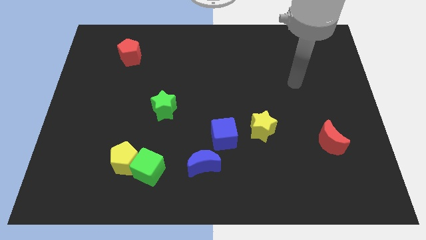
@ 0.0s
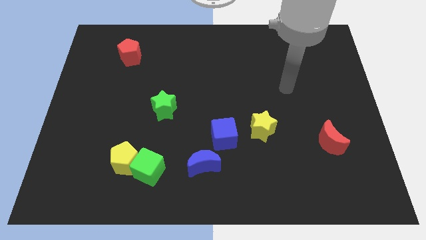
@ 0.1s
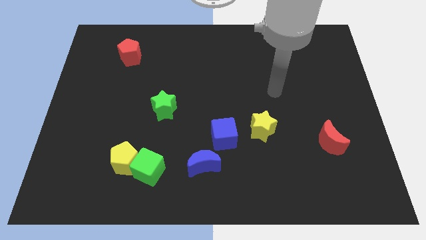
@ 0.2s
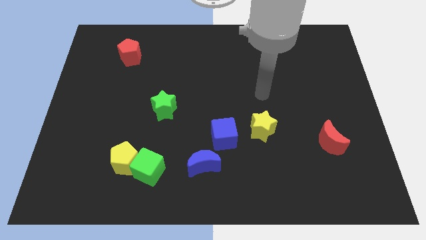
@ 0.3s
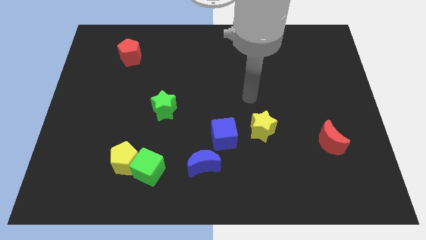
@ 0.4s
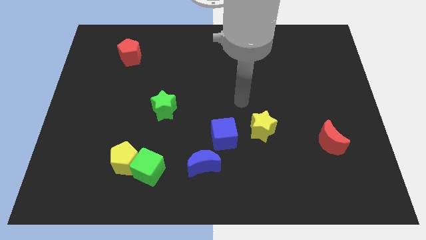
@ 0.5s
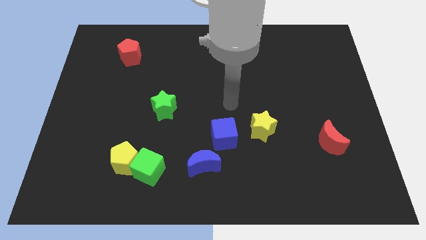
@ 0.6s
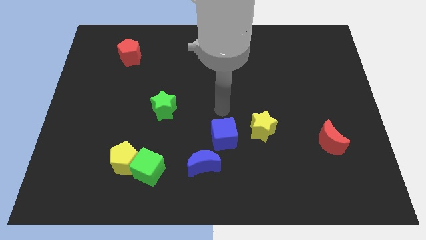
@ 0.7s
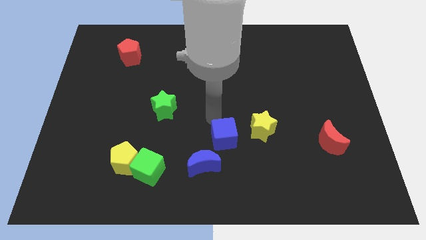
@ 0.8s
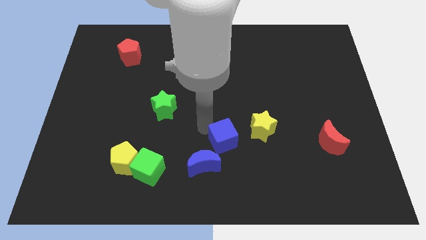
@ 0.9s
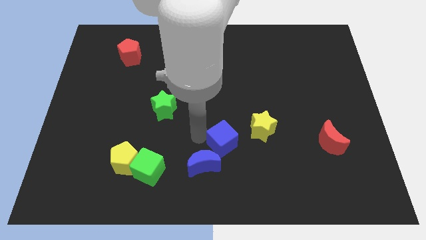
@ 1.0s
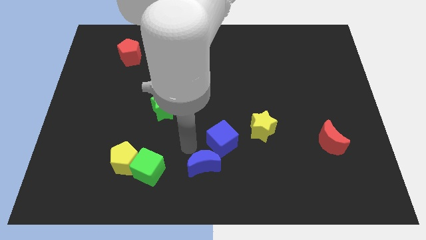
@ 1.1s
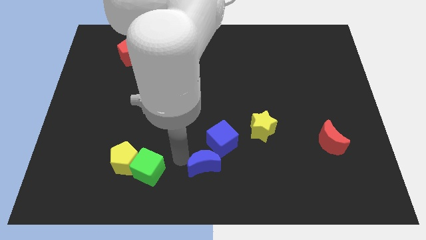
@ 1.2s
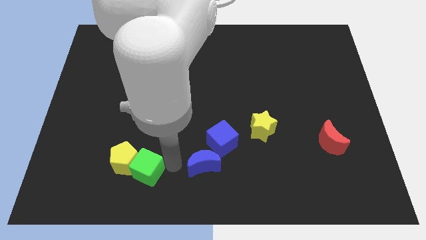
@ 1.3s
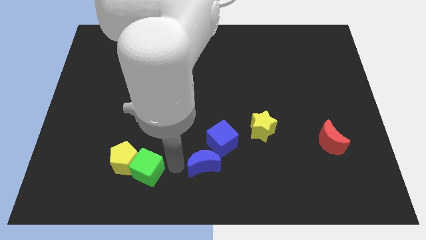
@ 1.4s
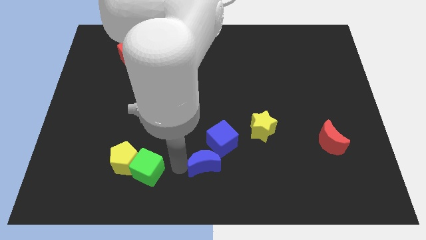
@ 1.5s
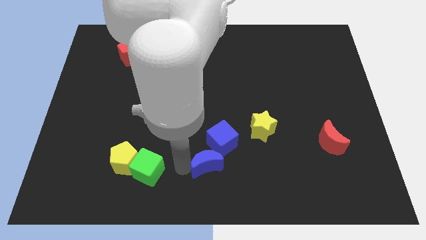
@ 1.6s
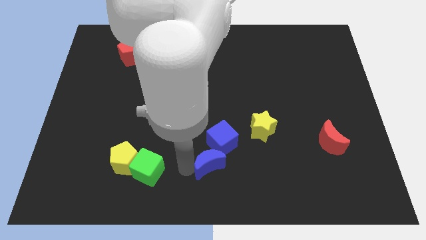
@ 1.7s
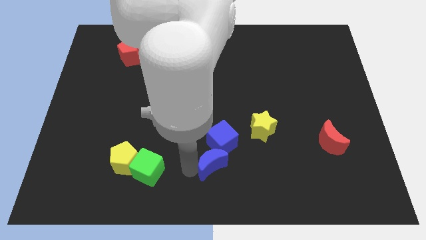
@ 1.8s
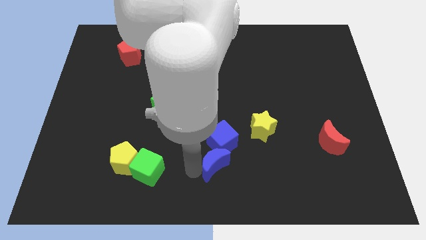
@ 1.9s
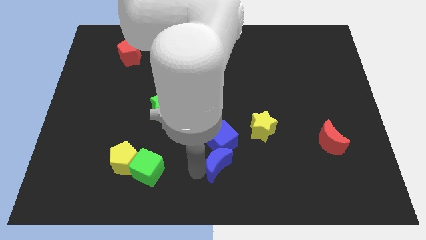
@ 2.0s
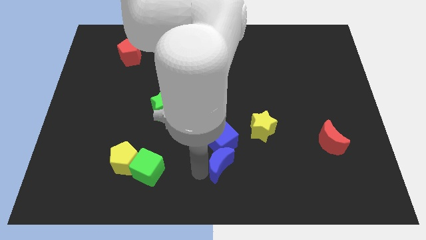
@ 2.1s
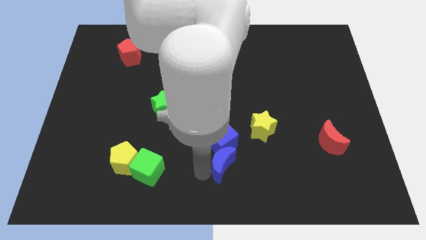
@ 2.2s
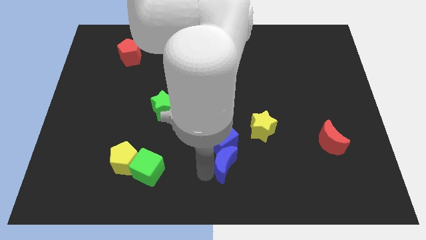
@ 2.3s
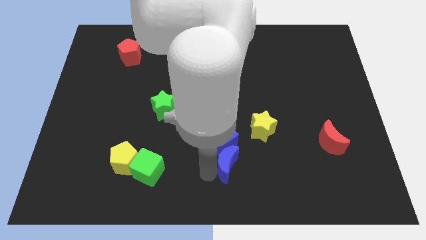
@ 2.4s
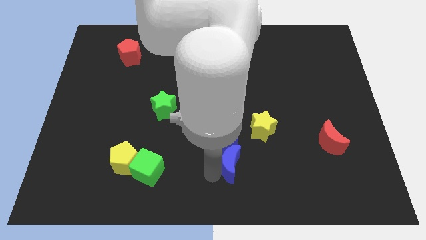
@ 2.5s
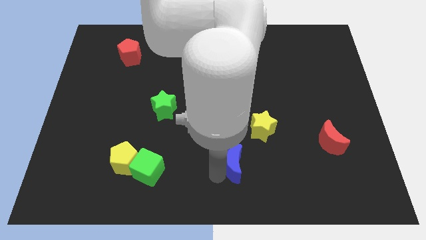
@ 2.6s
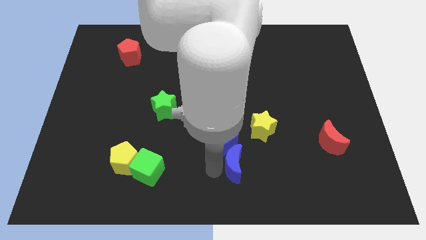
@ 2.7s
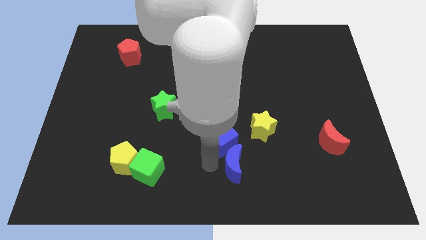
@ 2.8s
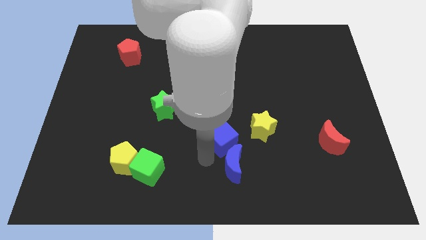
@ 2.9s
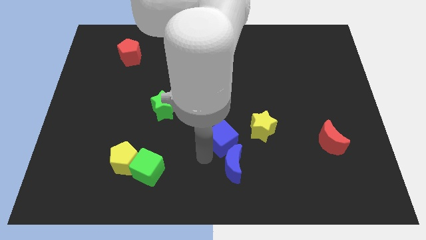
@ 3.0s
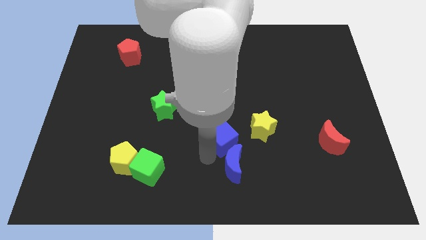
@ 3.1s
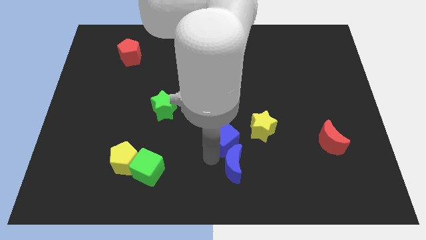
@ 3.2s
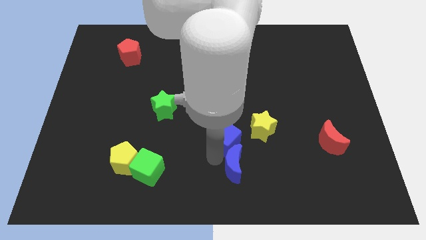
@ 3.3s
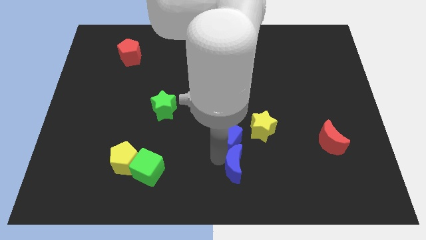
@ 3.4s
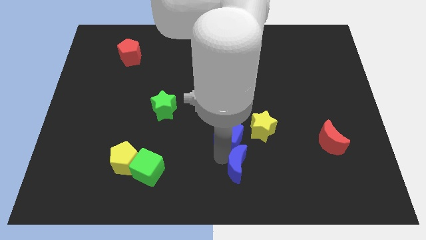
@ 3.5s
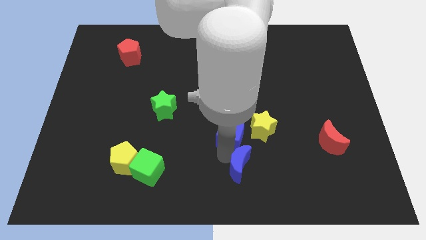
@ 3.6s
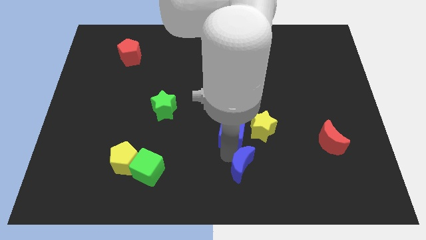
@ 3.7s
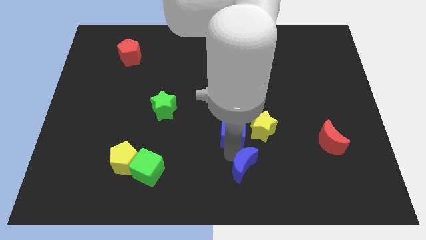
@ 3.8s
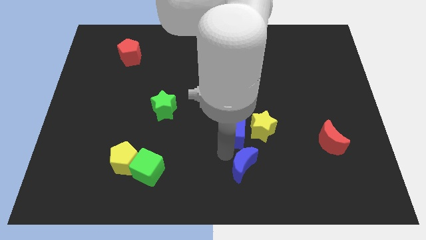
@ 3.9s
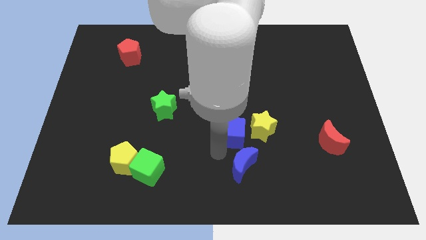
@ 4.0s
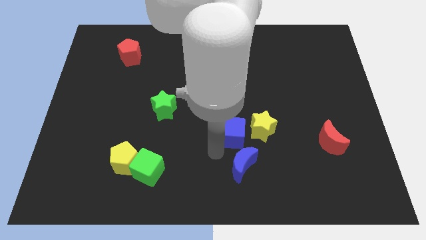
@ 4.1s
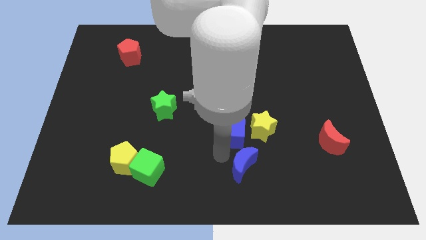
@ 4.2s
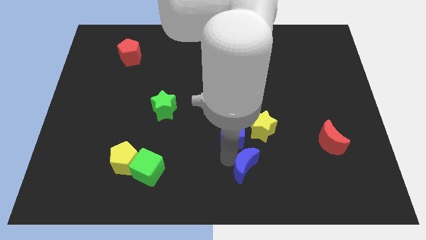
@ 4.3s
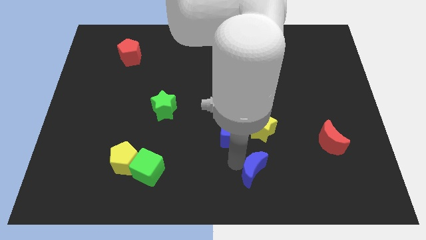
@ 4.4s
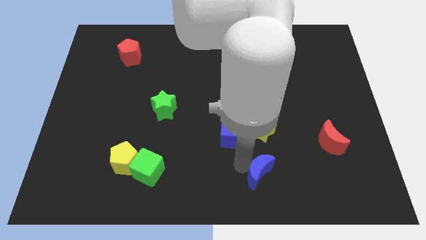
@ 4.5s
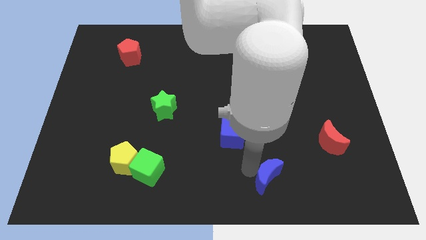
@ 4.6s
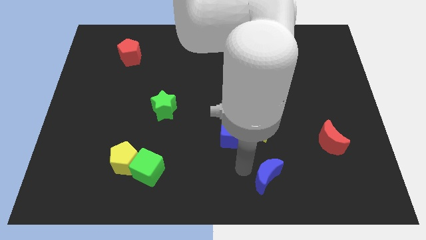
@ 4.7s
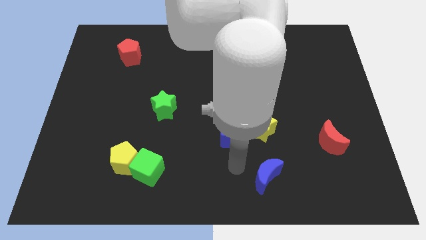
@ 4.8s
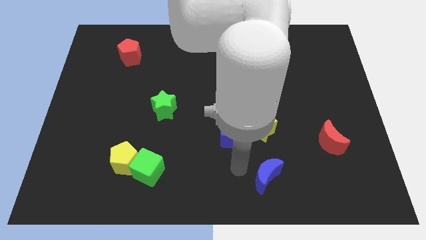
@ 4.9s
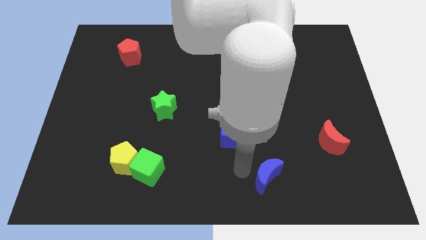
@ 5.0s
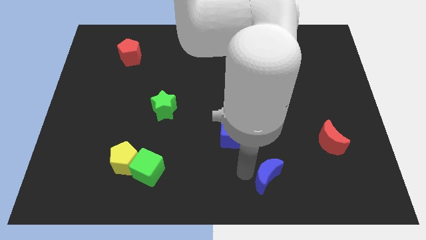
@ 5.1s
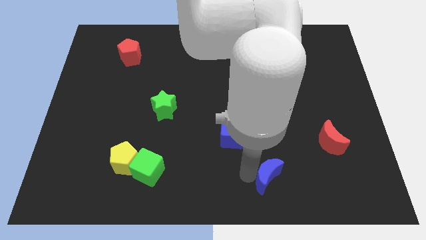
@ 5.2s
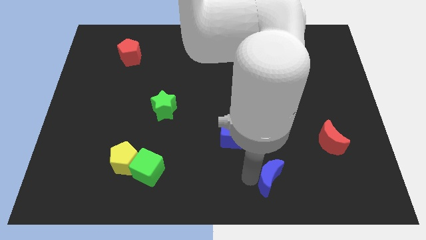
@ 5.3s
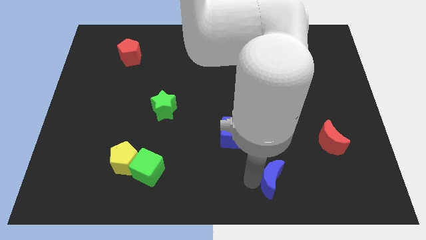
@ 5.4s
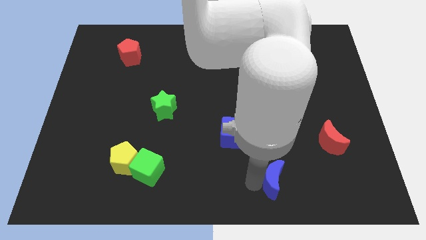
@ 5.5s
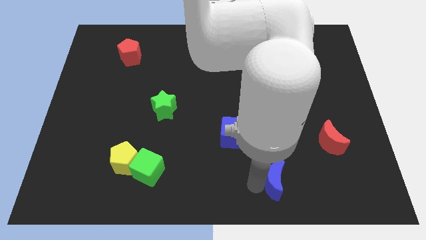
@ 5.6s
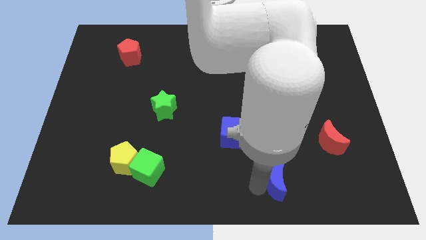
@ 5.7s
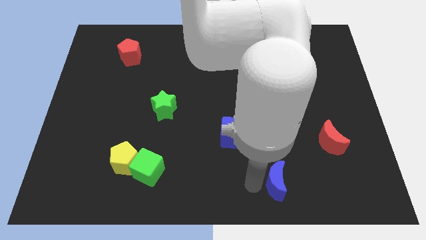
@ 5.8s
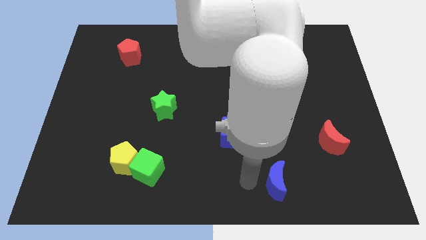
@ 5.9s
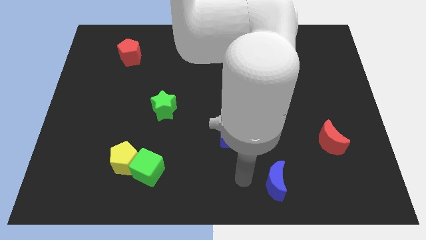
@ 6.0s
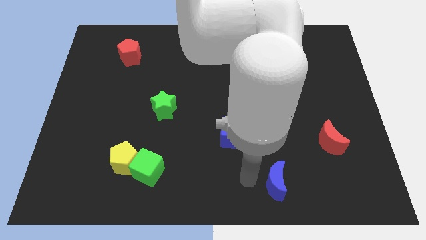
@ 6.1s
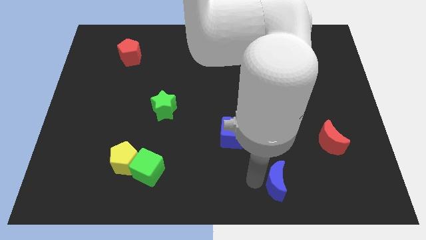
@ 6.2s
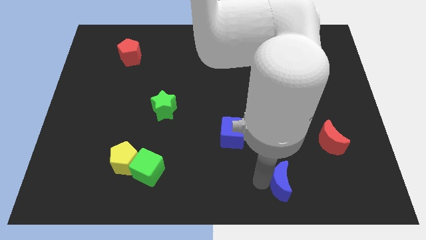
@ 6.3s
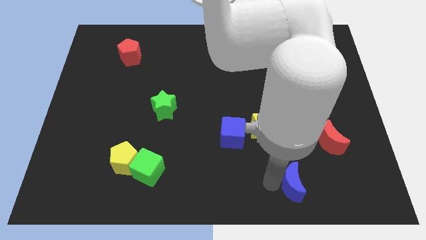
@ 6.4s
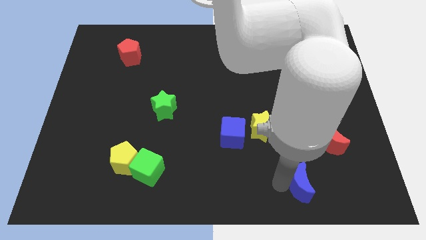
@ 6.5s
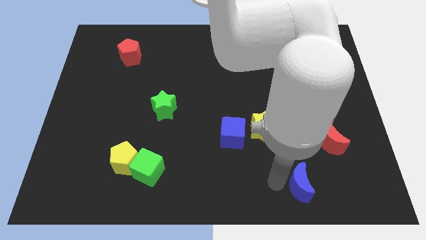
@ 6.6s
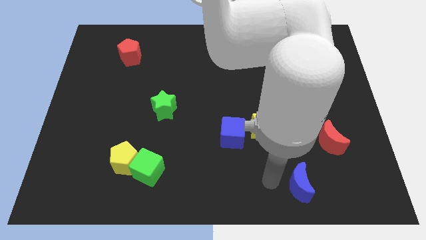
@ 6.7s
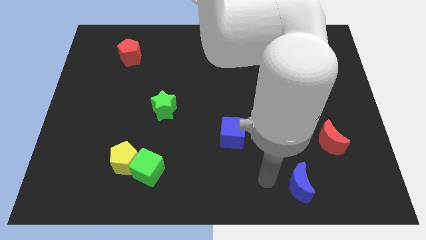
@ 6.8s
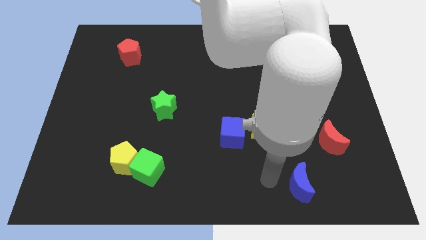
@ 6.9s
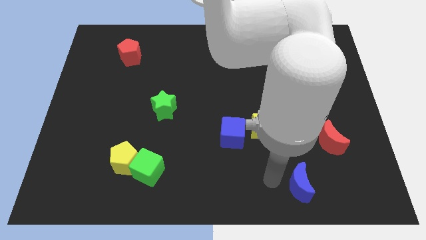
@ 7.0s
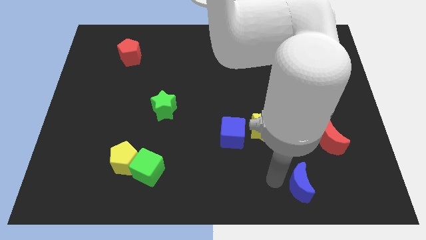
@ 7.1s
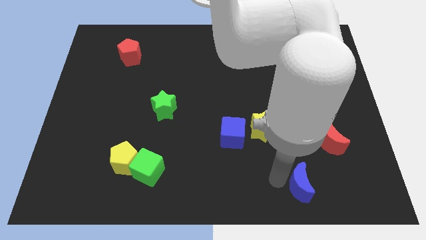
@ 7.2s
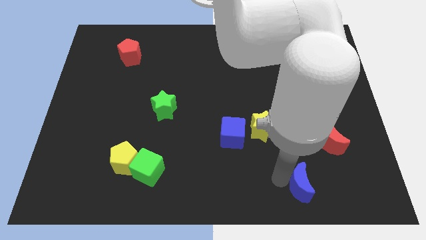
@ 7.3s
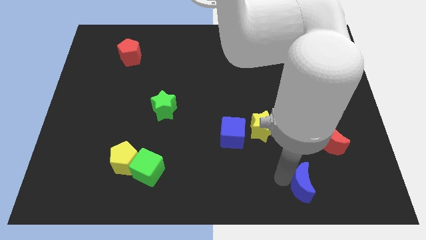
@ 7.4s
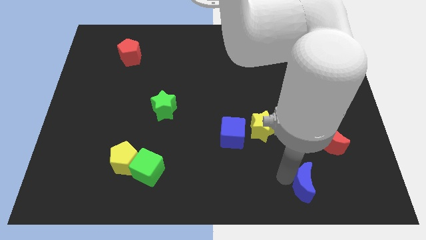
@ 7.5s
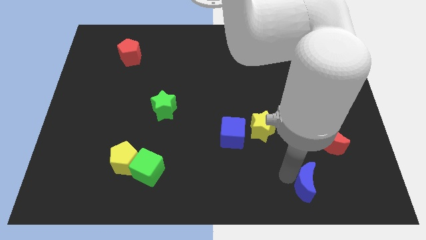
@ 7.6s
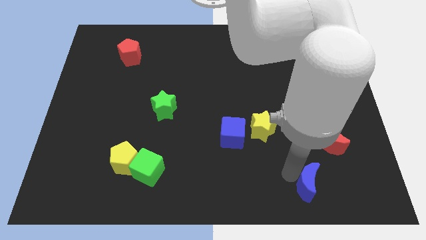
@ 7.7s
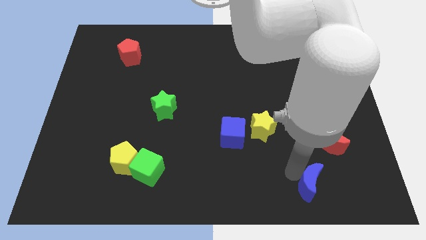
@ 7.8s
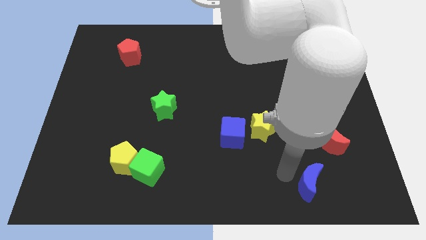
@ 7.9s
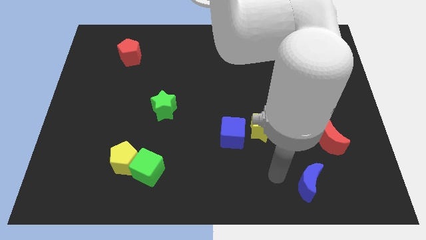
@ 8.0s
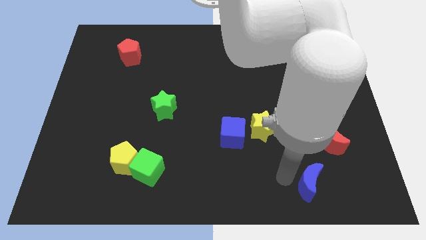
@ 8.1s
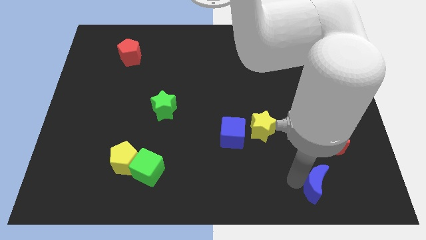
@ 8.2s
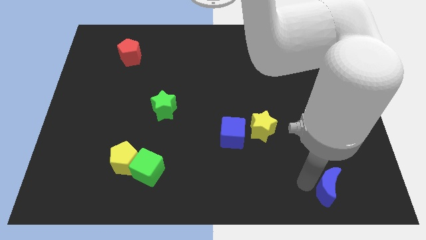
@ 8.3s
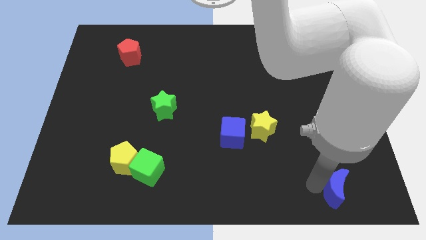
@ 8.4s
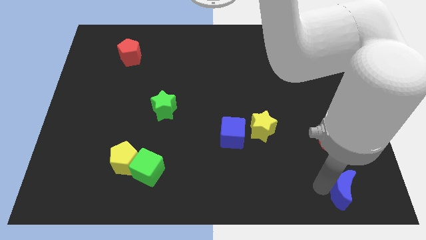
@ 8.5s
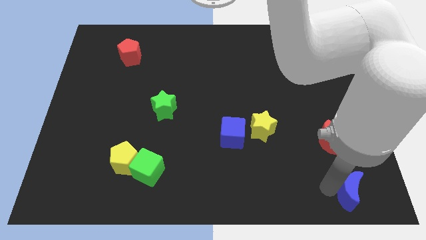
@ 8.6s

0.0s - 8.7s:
push the blue moon to the bottom right
